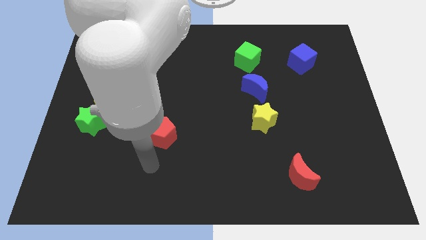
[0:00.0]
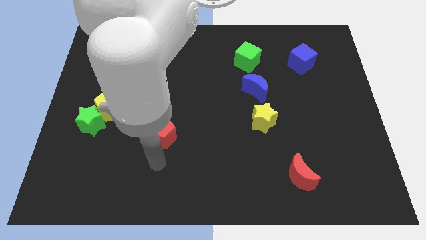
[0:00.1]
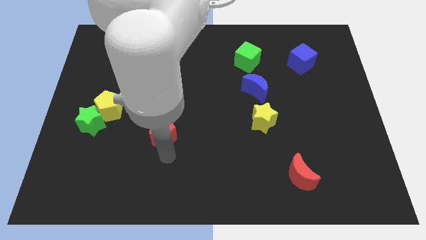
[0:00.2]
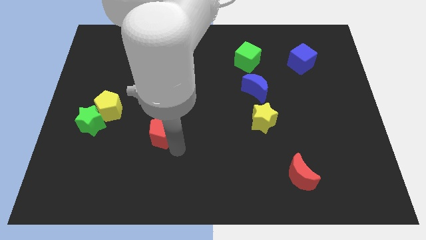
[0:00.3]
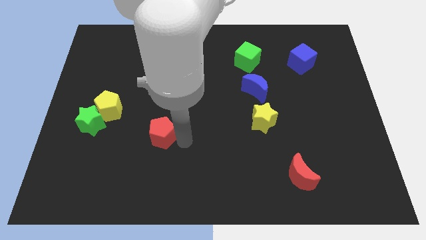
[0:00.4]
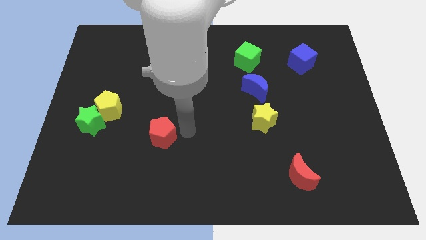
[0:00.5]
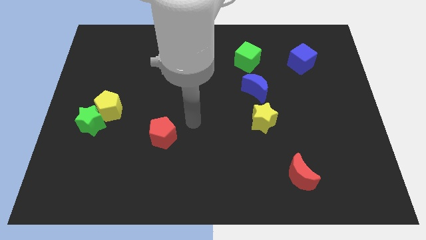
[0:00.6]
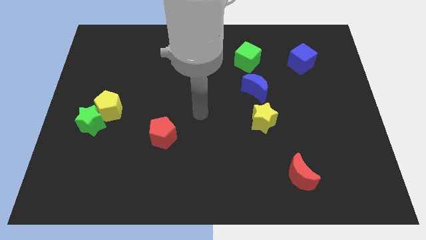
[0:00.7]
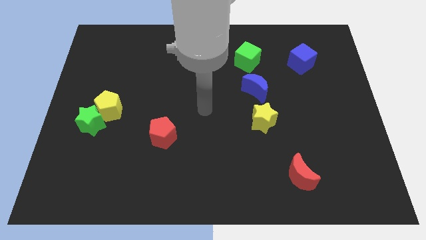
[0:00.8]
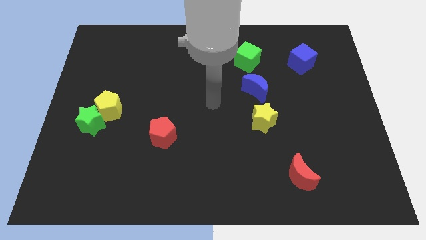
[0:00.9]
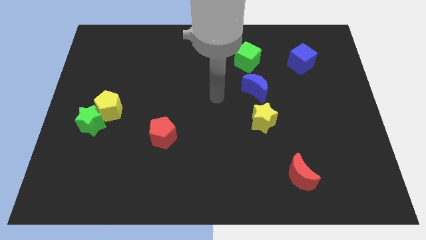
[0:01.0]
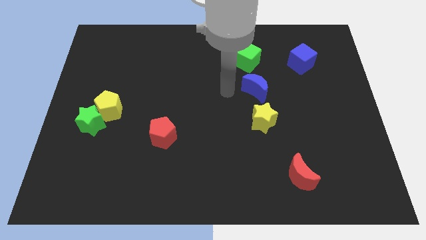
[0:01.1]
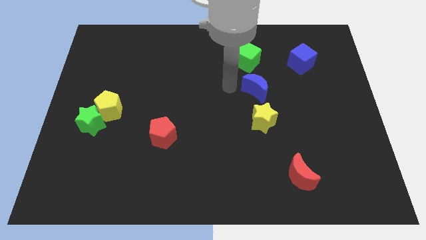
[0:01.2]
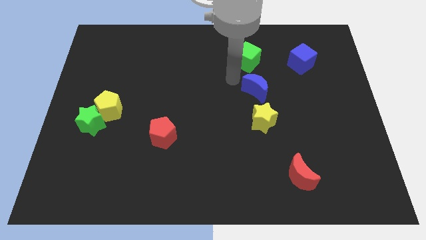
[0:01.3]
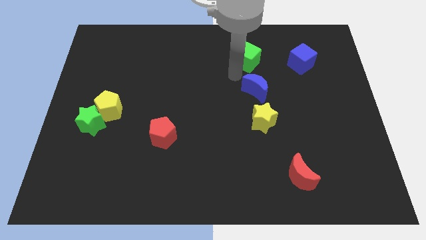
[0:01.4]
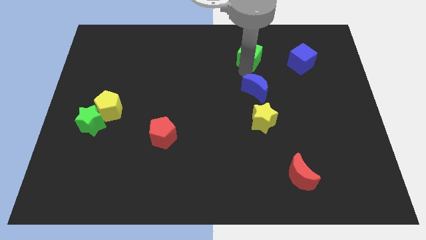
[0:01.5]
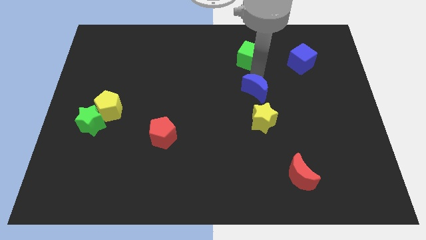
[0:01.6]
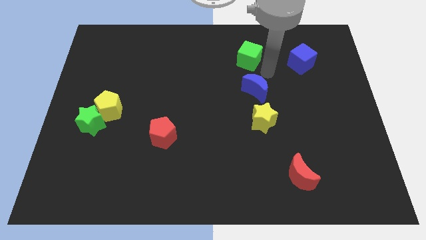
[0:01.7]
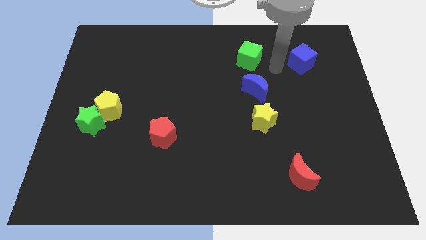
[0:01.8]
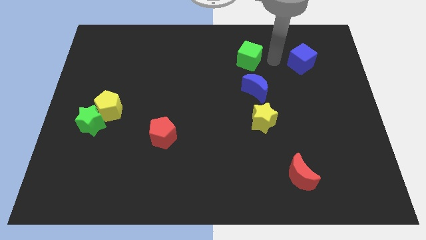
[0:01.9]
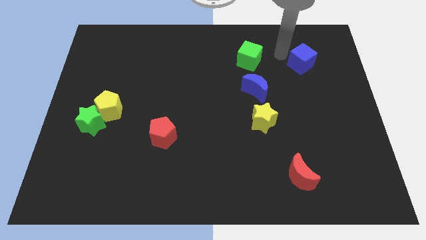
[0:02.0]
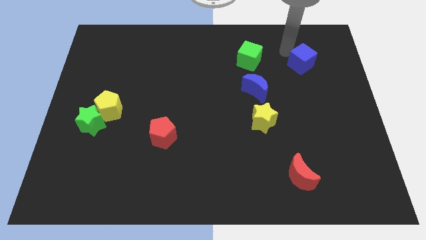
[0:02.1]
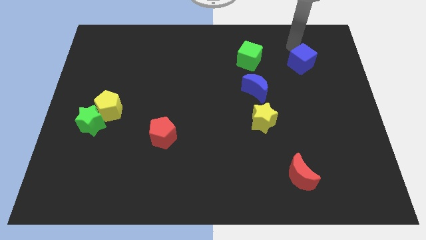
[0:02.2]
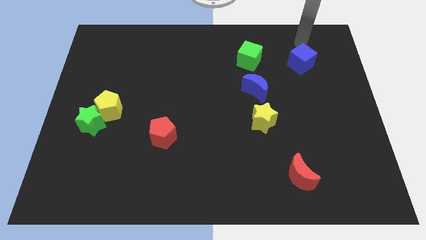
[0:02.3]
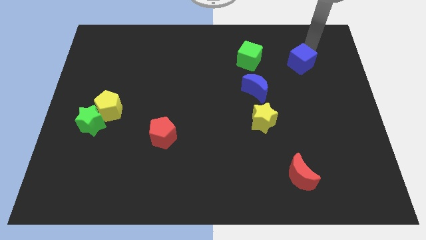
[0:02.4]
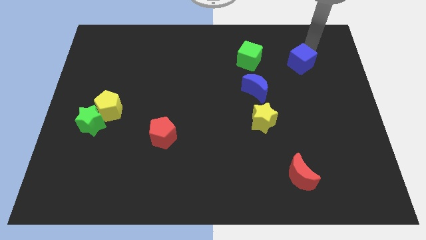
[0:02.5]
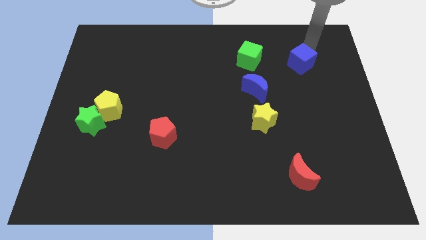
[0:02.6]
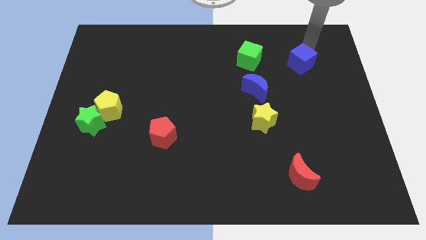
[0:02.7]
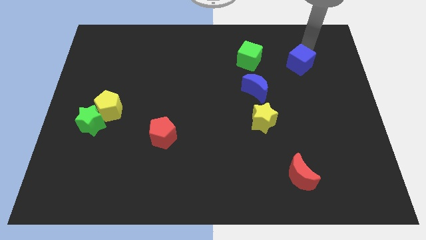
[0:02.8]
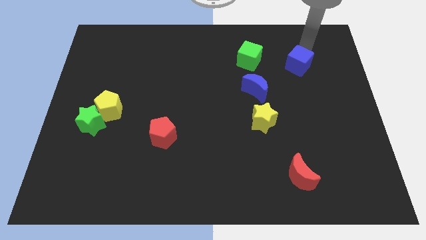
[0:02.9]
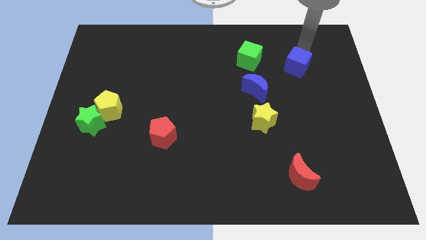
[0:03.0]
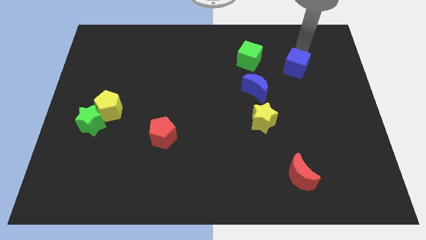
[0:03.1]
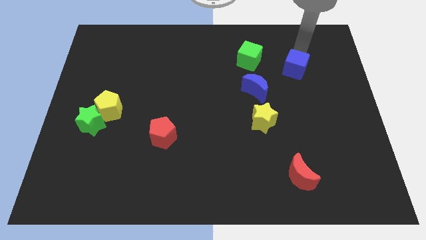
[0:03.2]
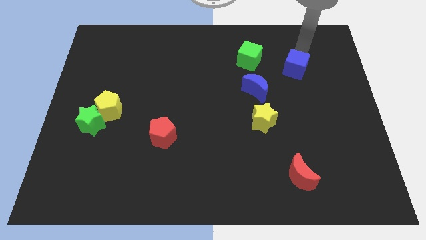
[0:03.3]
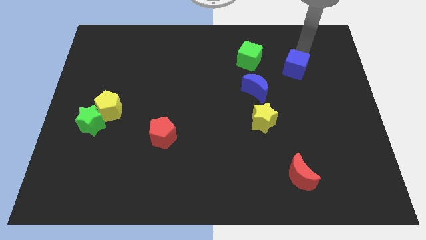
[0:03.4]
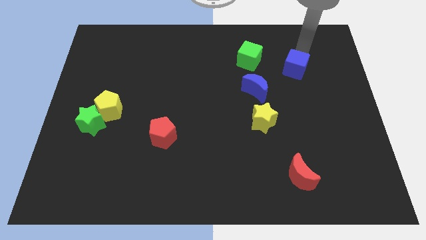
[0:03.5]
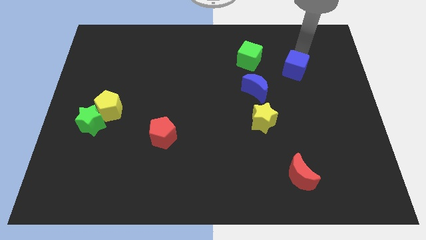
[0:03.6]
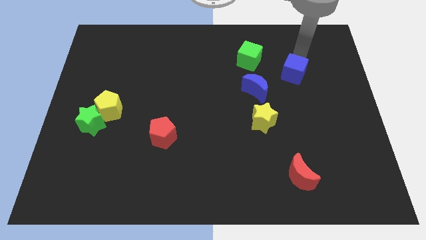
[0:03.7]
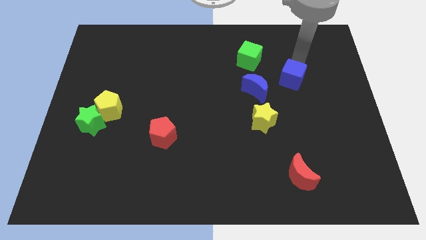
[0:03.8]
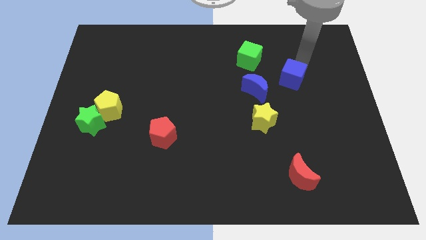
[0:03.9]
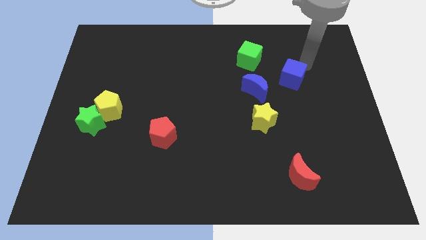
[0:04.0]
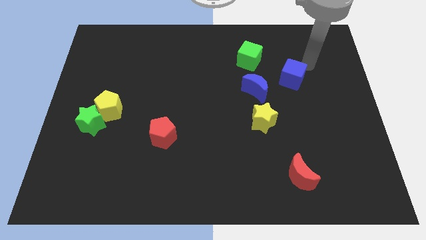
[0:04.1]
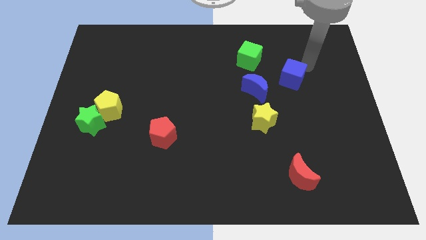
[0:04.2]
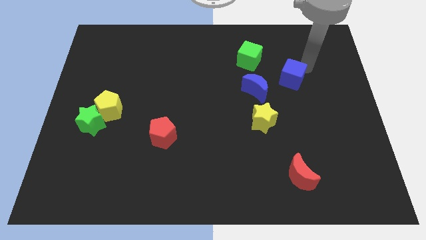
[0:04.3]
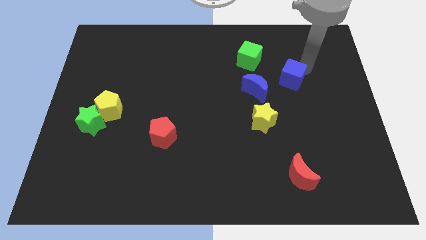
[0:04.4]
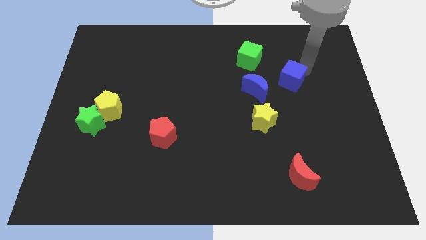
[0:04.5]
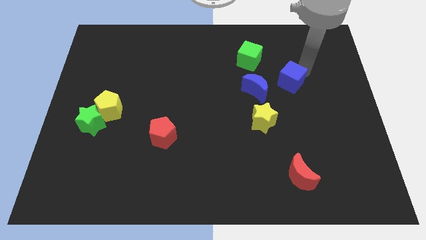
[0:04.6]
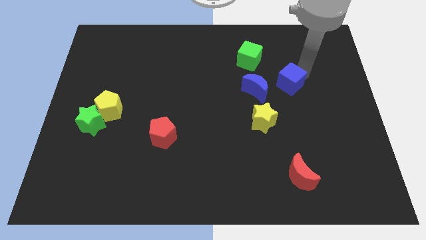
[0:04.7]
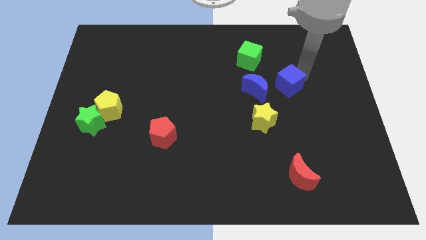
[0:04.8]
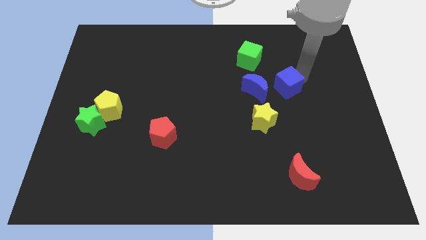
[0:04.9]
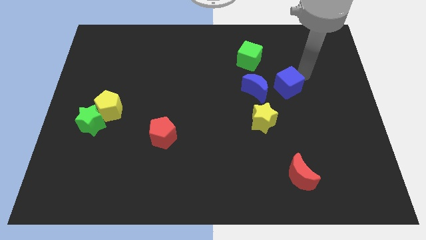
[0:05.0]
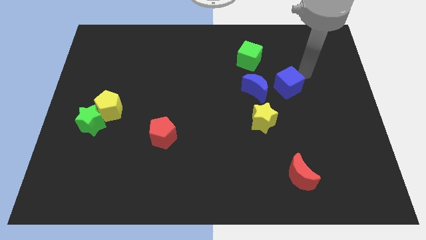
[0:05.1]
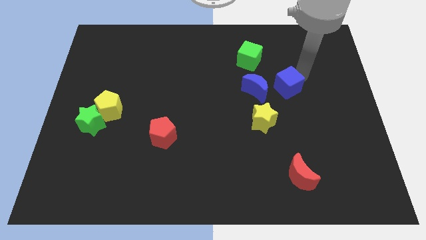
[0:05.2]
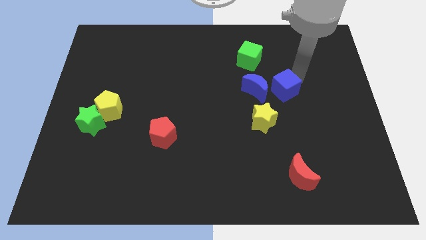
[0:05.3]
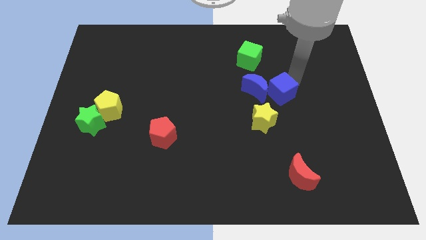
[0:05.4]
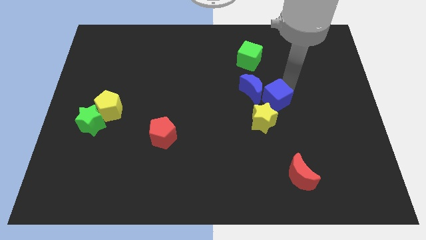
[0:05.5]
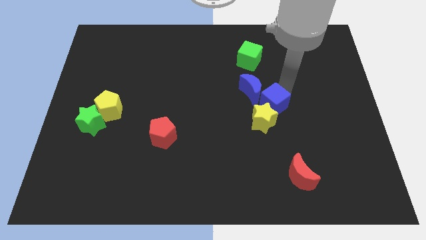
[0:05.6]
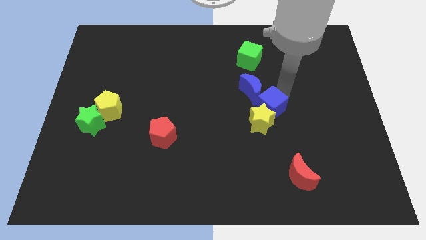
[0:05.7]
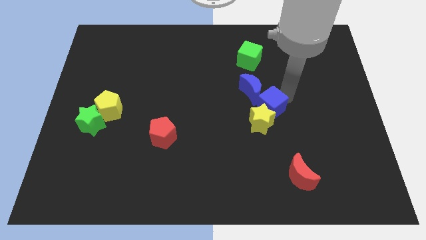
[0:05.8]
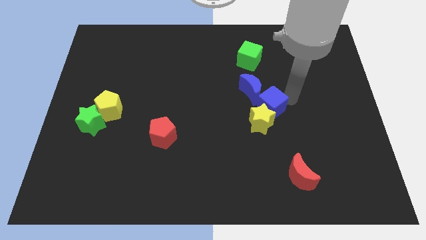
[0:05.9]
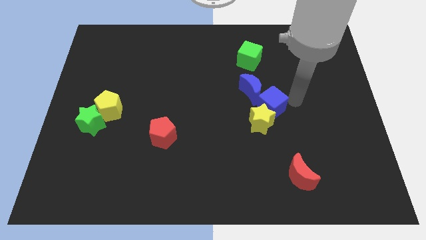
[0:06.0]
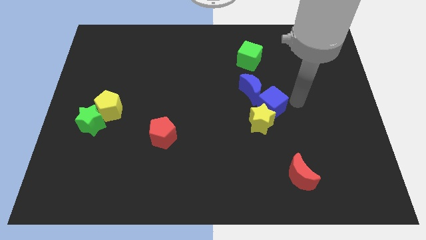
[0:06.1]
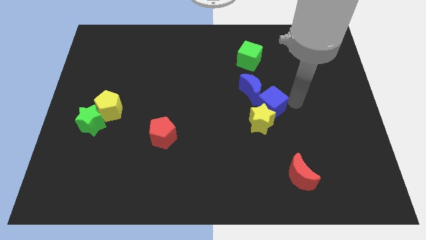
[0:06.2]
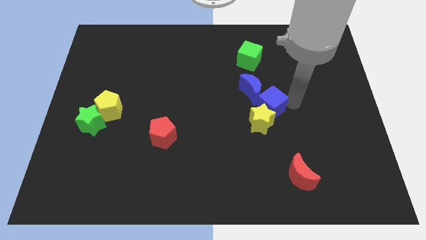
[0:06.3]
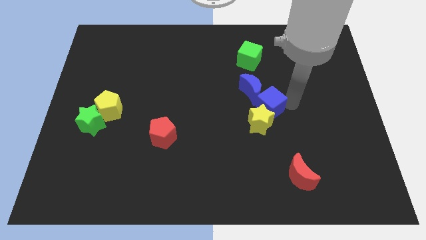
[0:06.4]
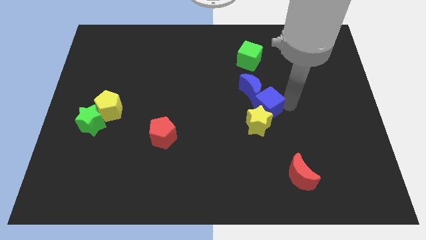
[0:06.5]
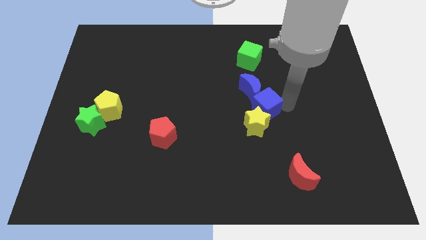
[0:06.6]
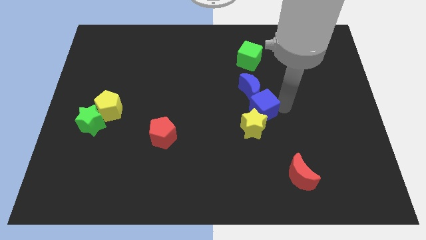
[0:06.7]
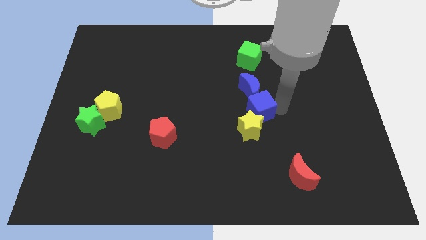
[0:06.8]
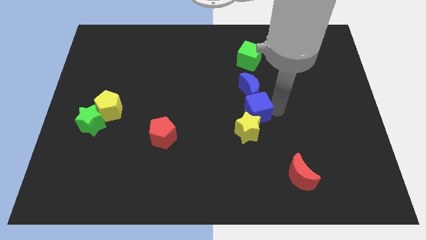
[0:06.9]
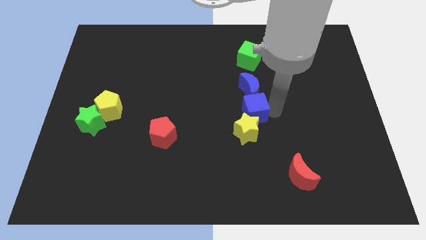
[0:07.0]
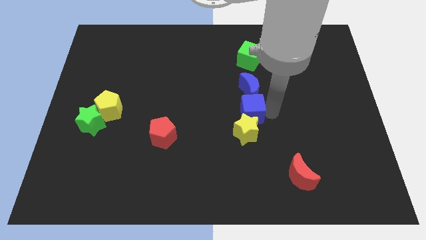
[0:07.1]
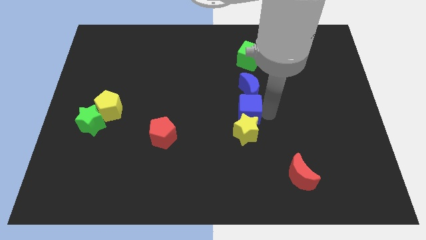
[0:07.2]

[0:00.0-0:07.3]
put the blue cube diagonally up and to the left of the yellow star

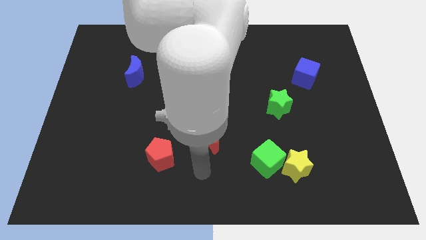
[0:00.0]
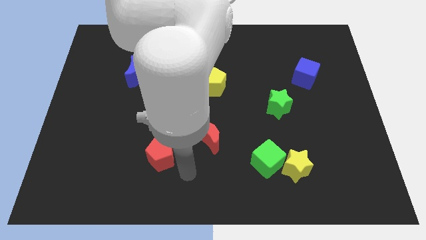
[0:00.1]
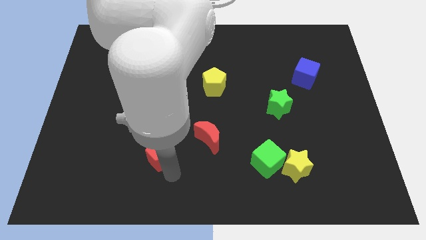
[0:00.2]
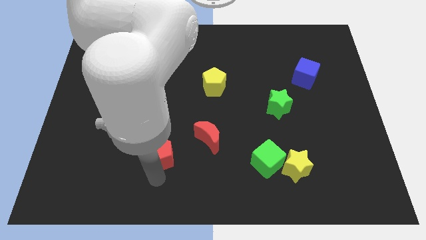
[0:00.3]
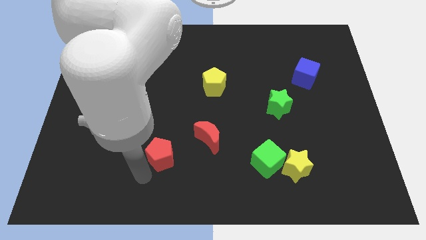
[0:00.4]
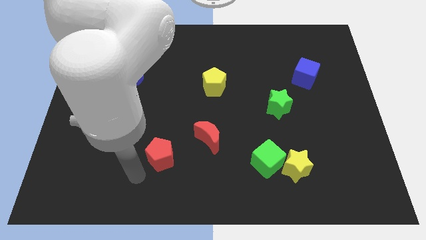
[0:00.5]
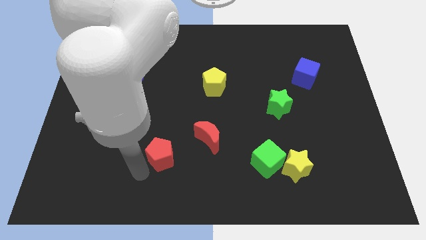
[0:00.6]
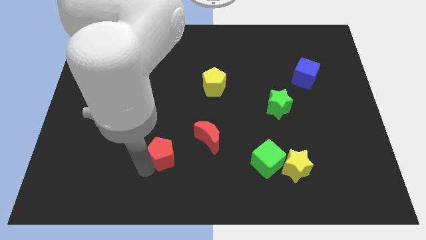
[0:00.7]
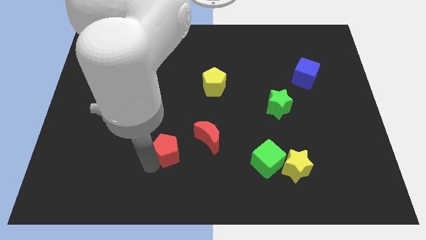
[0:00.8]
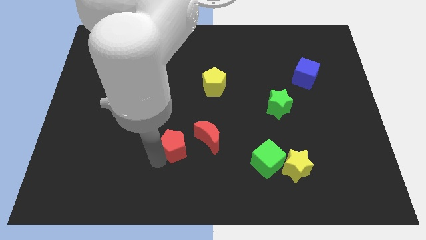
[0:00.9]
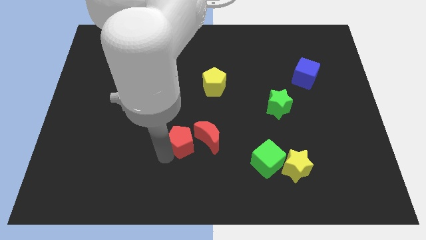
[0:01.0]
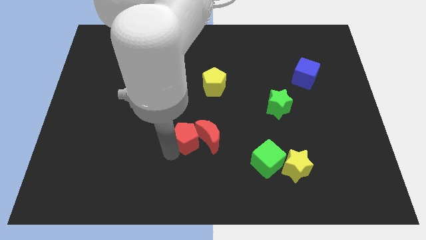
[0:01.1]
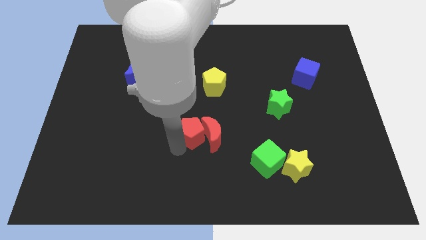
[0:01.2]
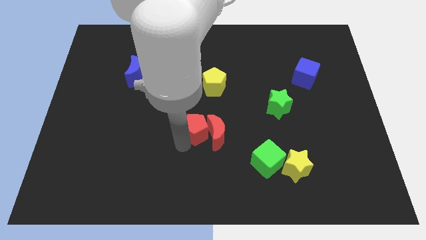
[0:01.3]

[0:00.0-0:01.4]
put the red pentagon to the bottom side of the yellow pentagon
